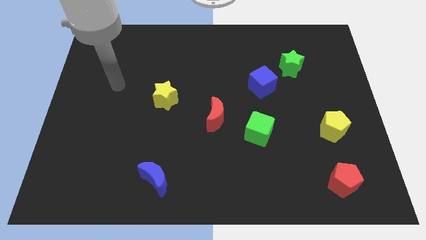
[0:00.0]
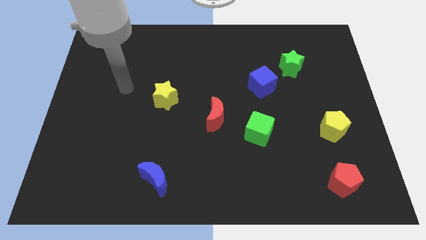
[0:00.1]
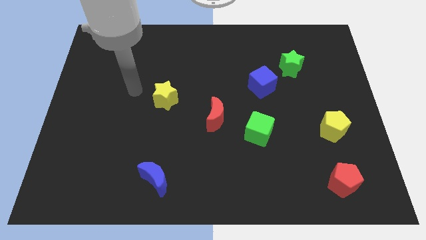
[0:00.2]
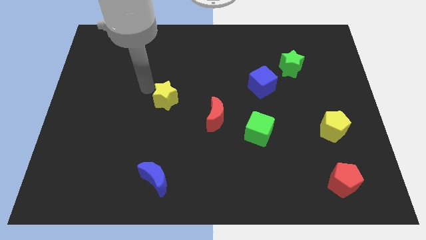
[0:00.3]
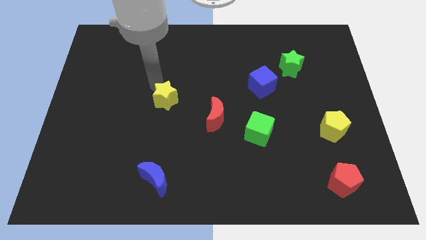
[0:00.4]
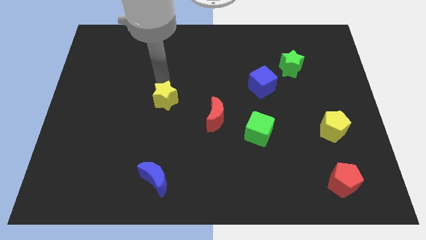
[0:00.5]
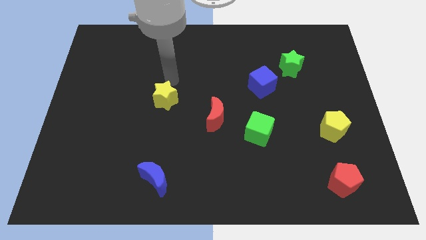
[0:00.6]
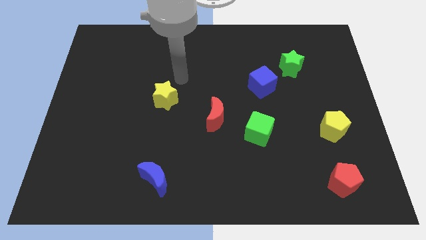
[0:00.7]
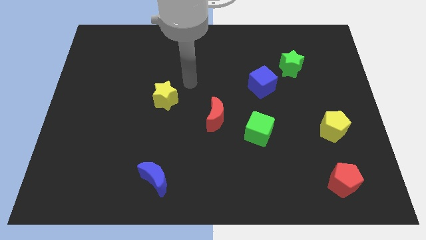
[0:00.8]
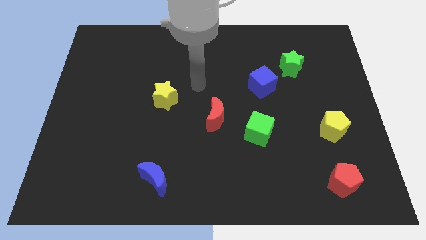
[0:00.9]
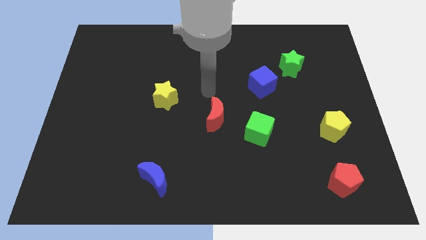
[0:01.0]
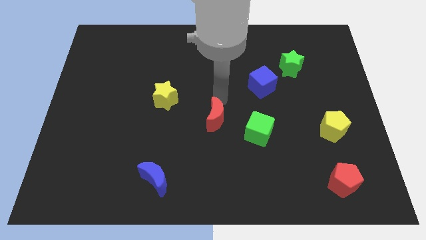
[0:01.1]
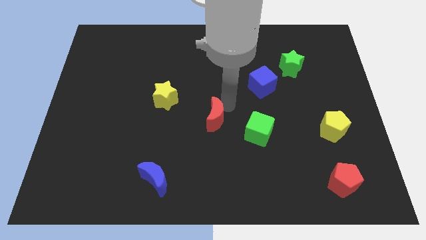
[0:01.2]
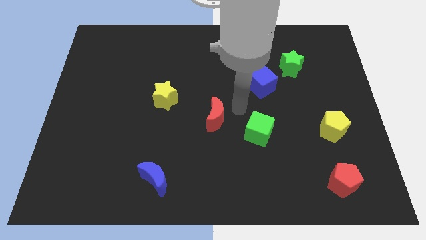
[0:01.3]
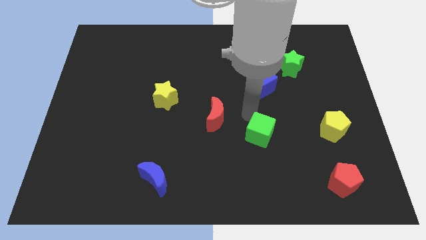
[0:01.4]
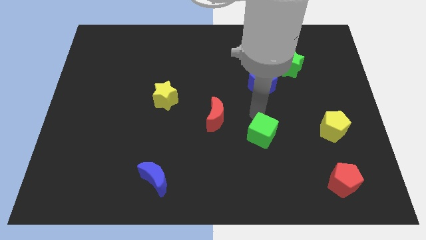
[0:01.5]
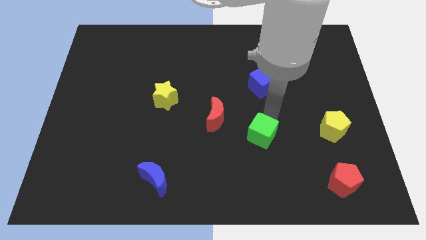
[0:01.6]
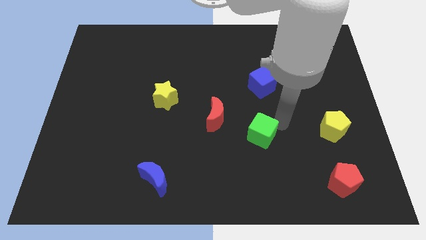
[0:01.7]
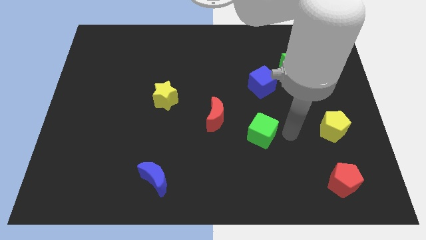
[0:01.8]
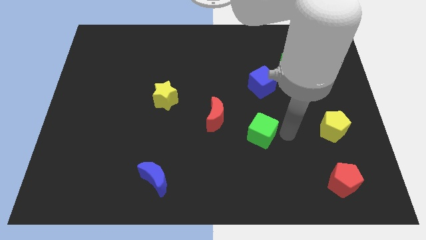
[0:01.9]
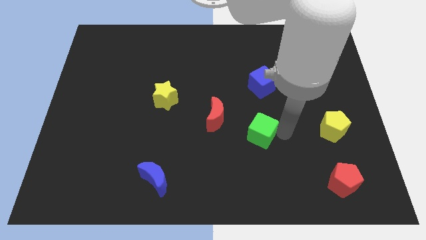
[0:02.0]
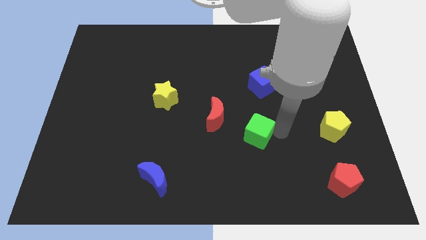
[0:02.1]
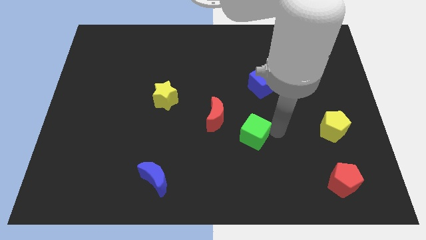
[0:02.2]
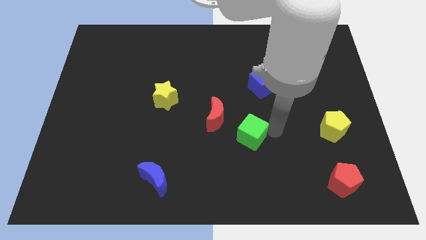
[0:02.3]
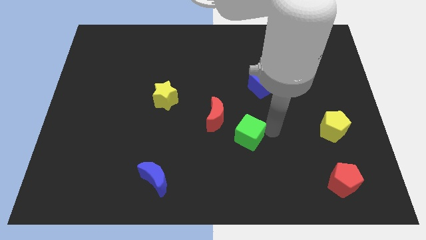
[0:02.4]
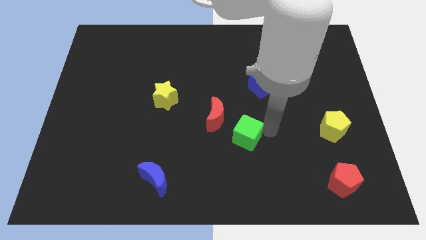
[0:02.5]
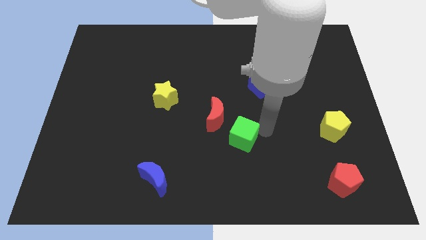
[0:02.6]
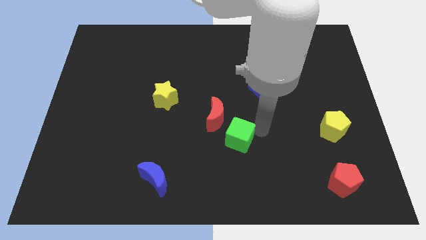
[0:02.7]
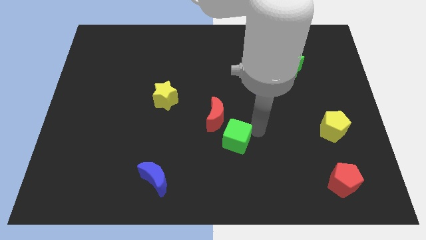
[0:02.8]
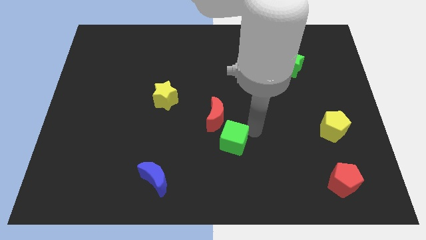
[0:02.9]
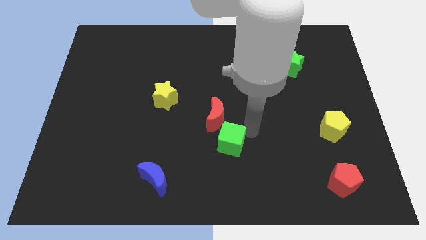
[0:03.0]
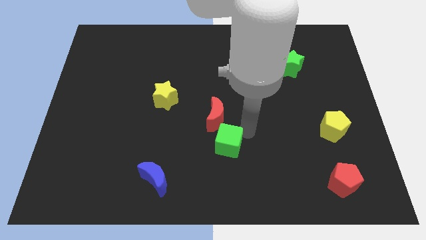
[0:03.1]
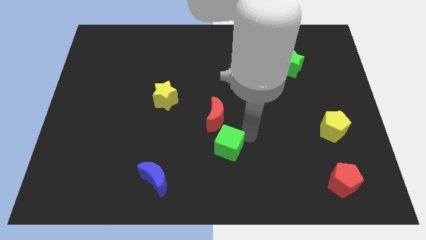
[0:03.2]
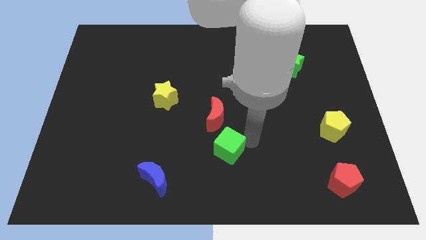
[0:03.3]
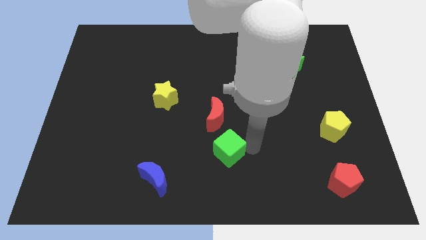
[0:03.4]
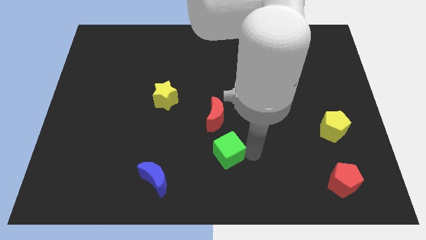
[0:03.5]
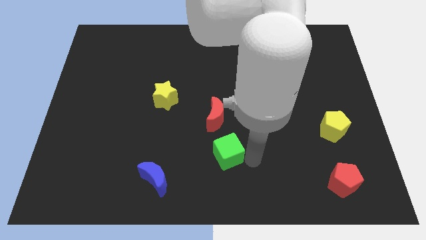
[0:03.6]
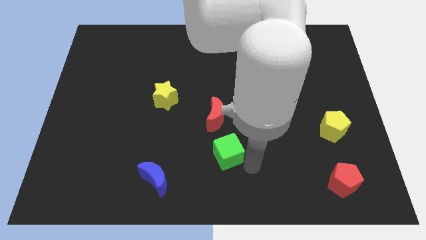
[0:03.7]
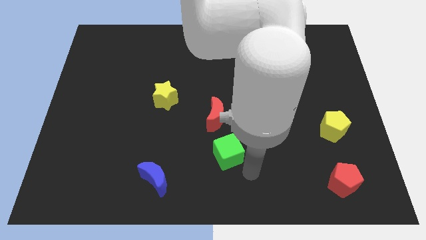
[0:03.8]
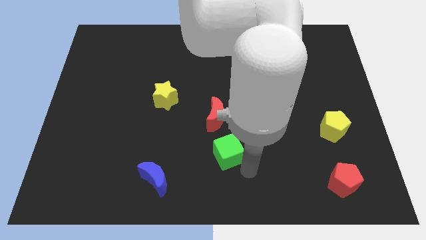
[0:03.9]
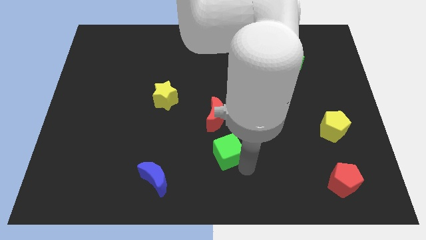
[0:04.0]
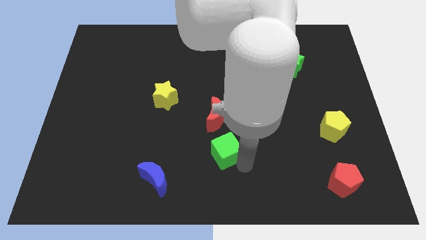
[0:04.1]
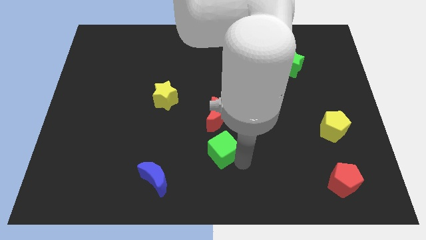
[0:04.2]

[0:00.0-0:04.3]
push the green cube left a bit

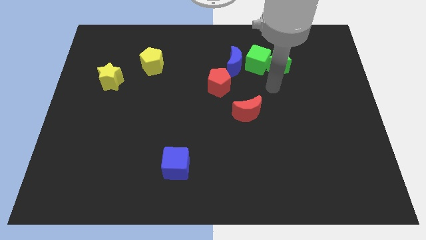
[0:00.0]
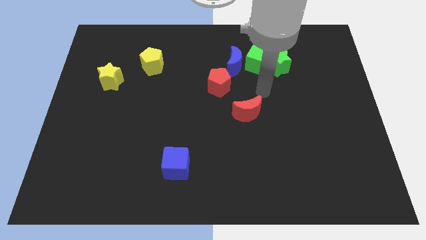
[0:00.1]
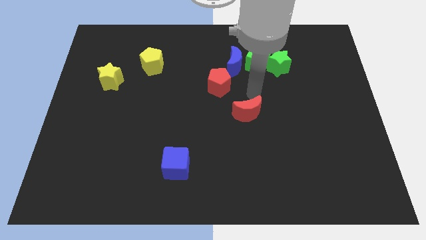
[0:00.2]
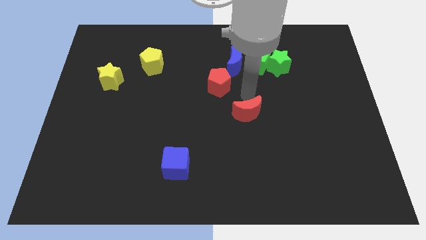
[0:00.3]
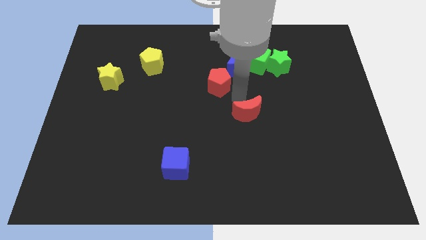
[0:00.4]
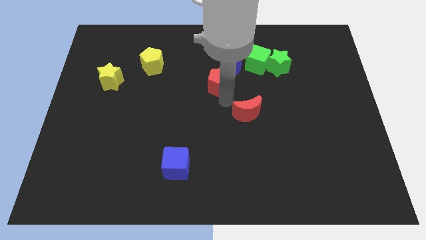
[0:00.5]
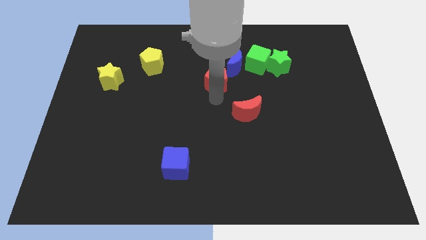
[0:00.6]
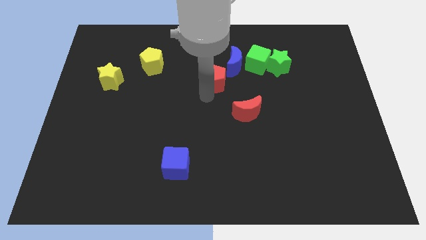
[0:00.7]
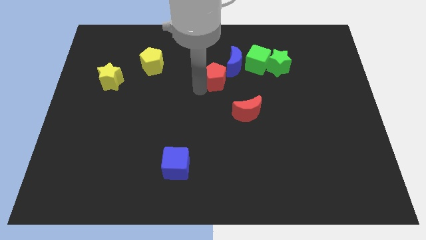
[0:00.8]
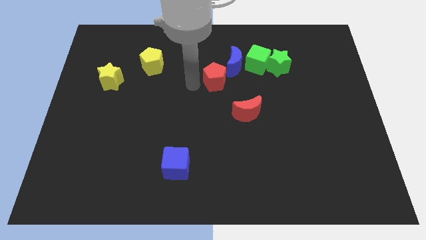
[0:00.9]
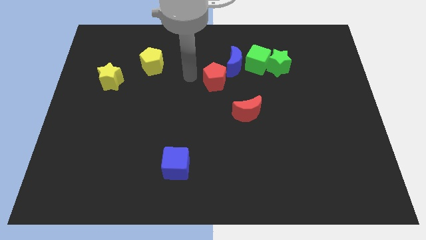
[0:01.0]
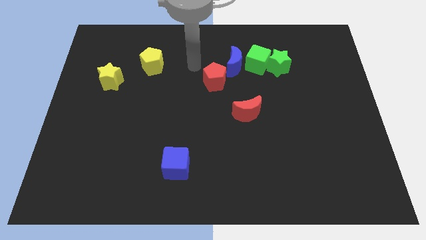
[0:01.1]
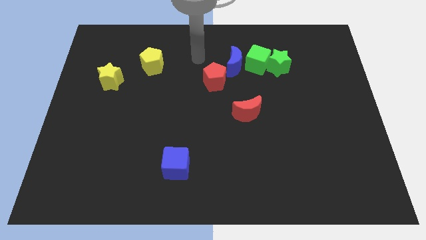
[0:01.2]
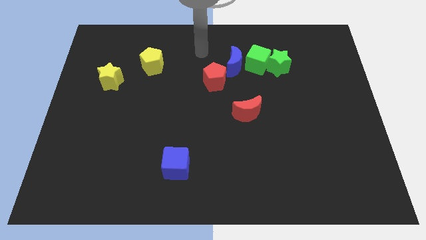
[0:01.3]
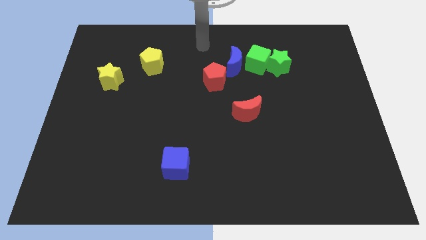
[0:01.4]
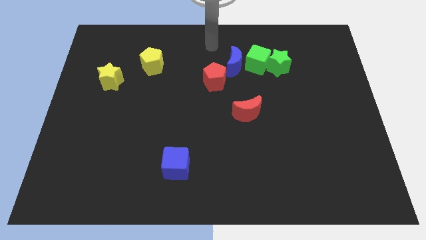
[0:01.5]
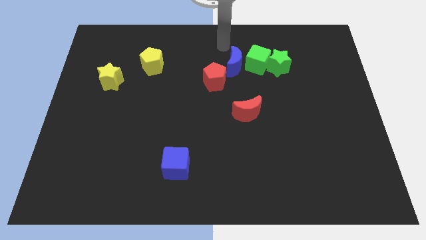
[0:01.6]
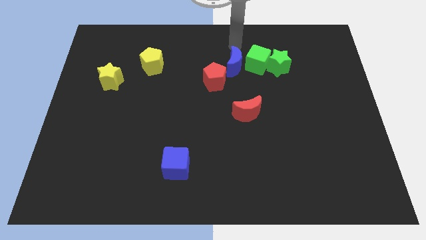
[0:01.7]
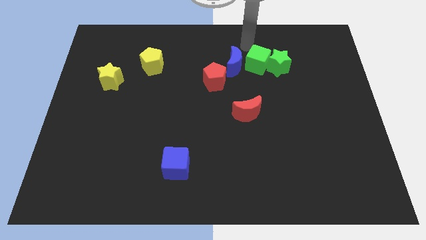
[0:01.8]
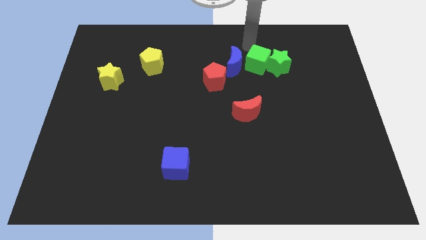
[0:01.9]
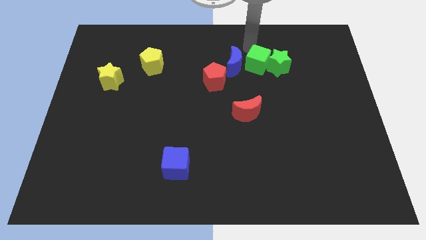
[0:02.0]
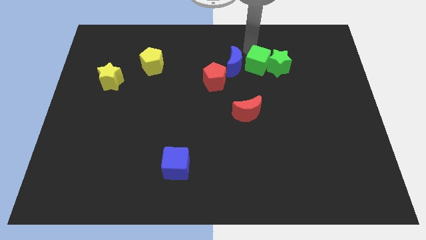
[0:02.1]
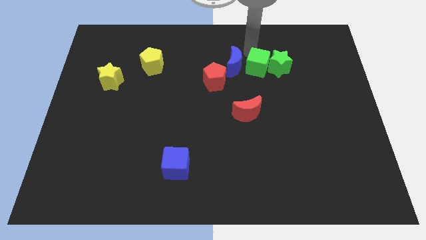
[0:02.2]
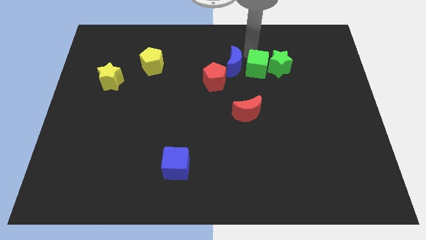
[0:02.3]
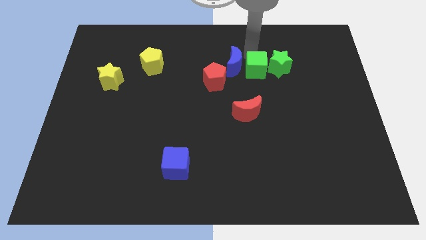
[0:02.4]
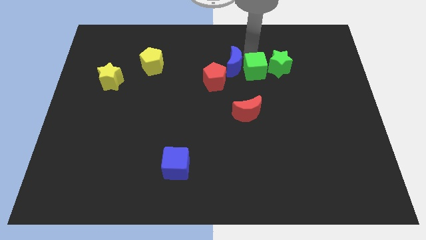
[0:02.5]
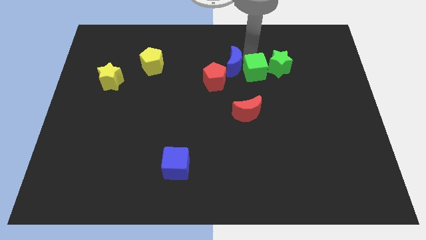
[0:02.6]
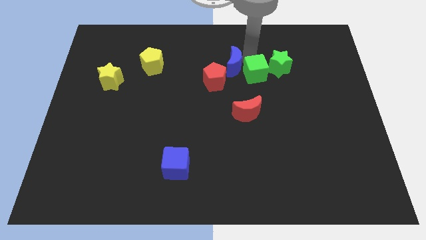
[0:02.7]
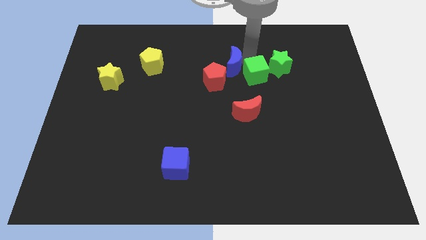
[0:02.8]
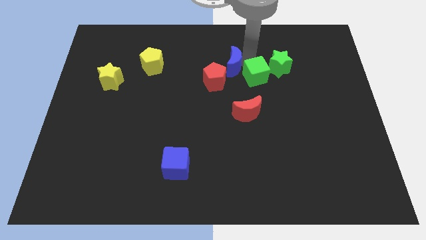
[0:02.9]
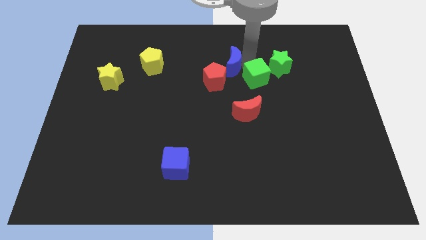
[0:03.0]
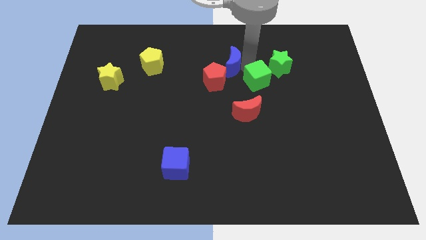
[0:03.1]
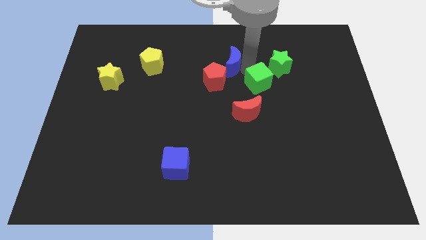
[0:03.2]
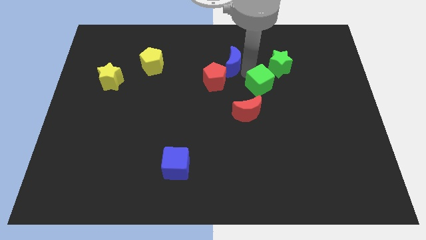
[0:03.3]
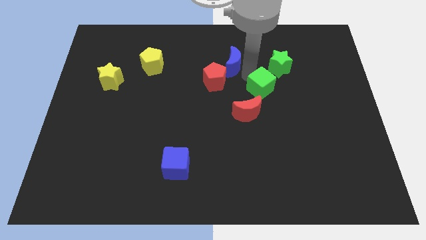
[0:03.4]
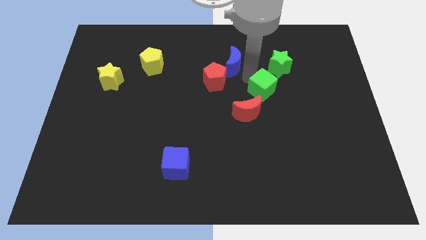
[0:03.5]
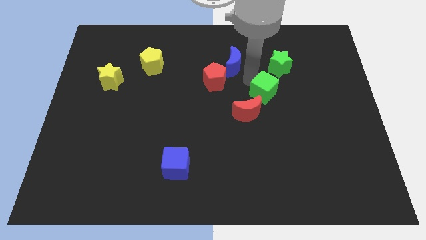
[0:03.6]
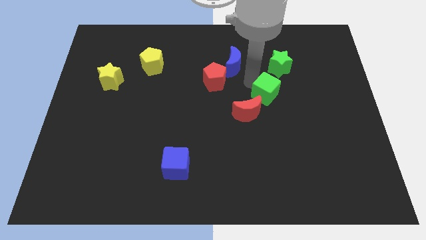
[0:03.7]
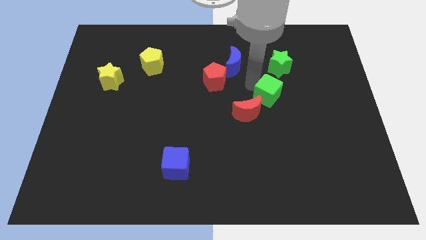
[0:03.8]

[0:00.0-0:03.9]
slightly slide the green cube downwards and to the right

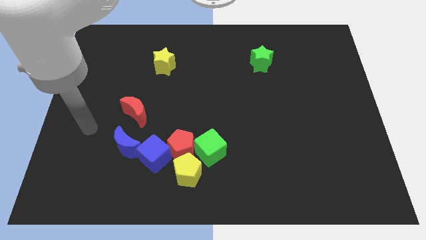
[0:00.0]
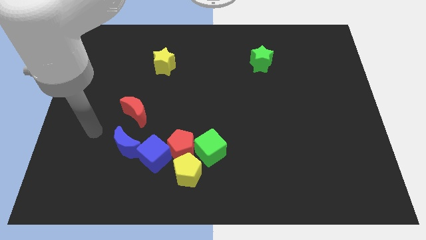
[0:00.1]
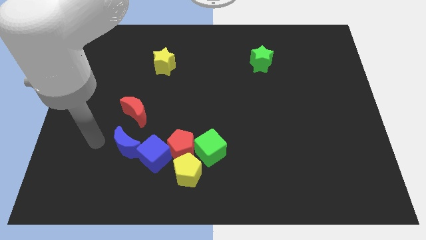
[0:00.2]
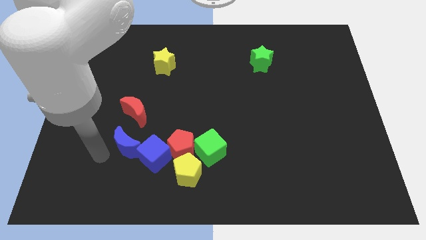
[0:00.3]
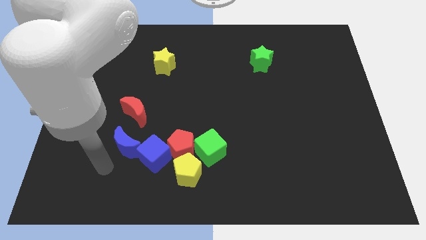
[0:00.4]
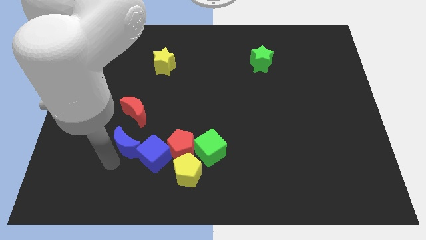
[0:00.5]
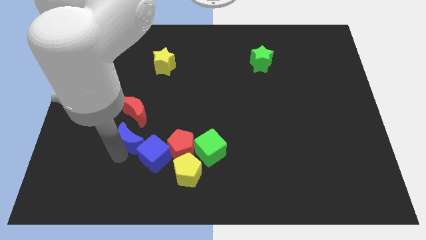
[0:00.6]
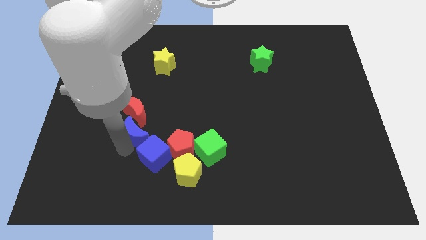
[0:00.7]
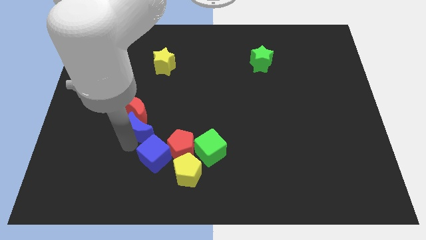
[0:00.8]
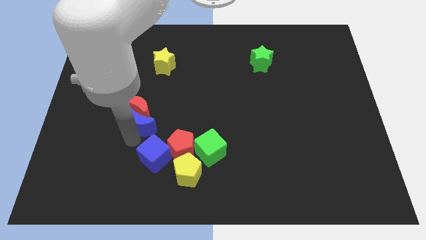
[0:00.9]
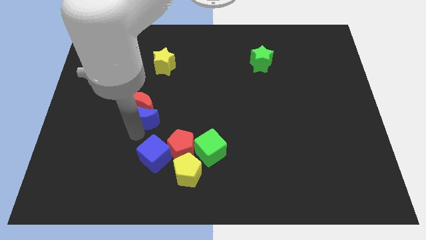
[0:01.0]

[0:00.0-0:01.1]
move the blue moon up a little
